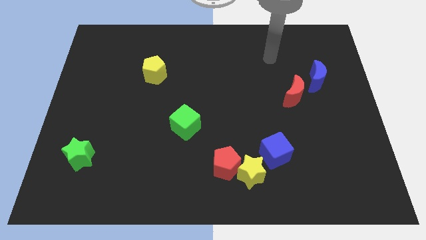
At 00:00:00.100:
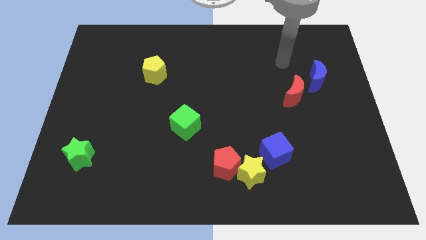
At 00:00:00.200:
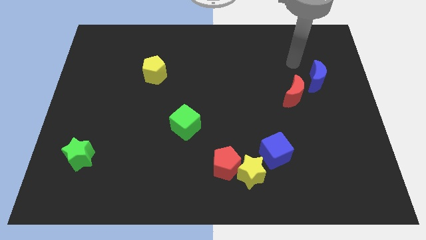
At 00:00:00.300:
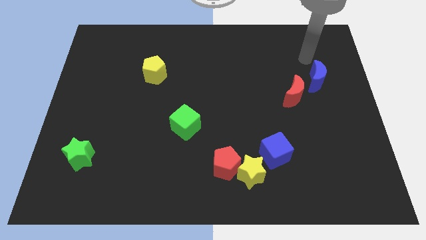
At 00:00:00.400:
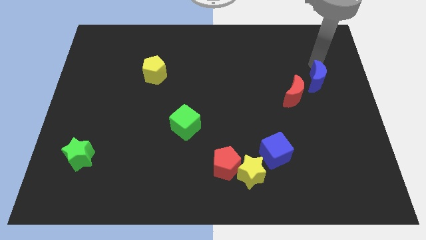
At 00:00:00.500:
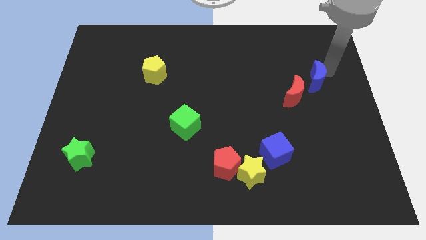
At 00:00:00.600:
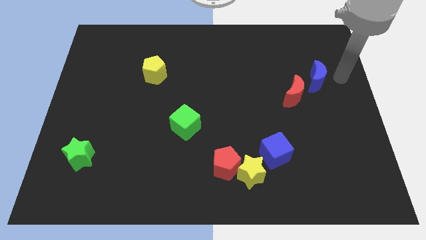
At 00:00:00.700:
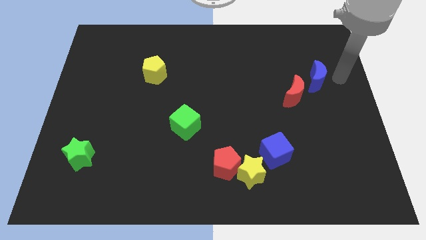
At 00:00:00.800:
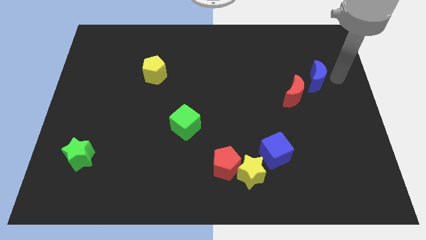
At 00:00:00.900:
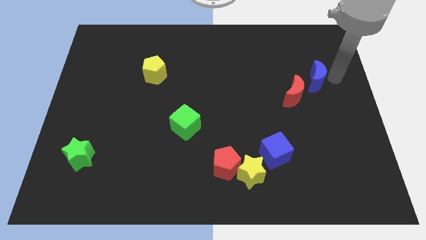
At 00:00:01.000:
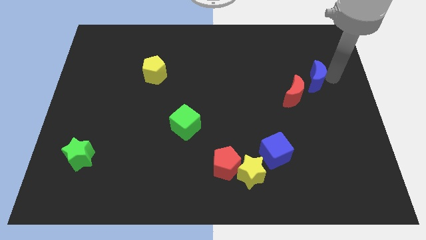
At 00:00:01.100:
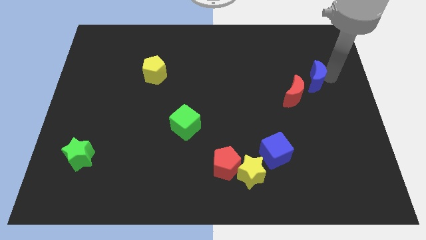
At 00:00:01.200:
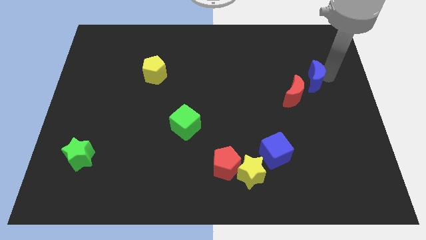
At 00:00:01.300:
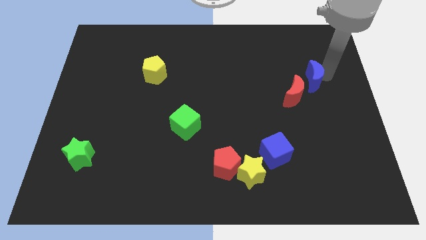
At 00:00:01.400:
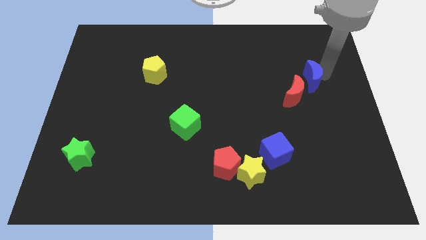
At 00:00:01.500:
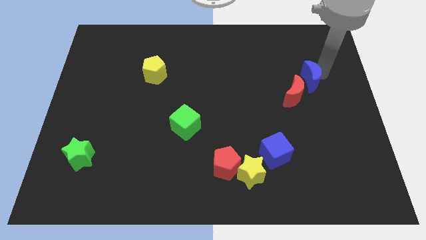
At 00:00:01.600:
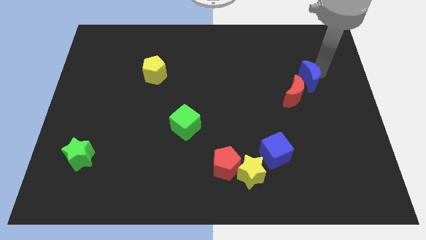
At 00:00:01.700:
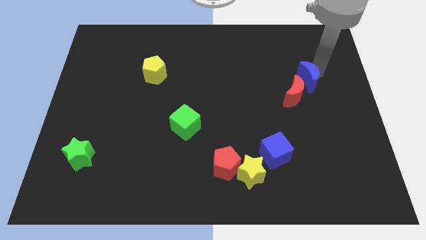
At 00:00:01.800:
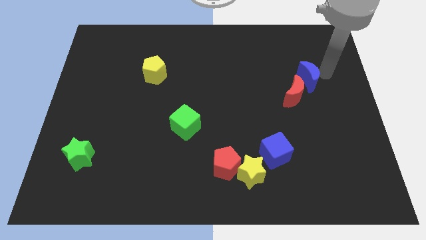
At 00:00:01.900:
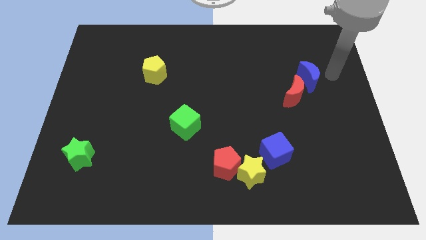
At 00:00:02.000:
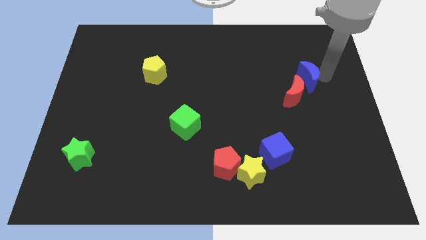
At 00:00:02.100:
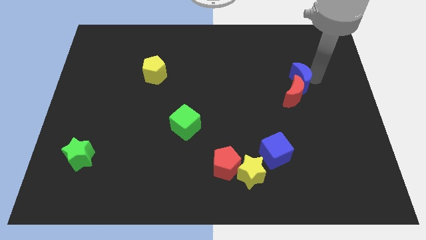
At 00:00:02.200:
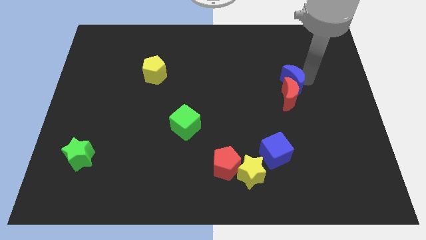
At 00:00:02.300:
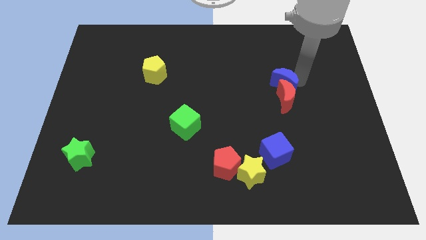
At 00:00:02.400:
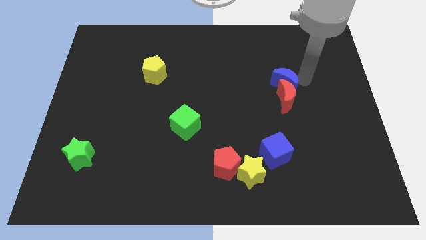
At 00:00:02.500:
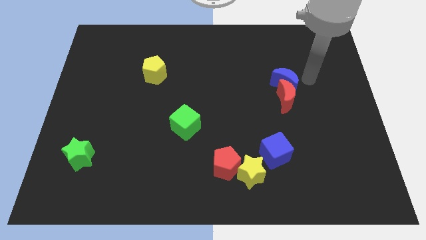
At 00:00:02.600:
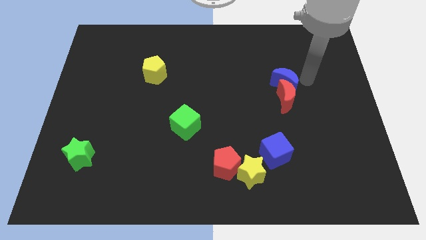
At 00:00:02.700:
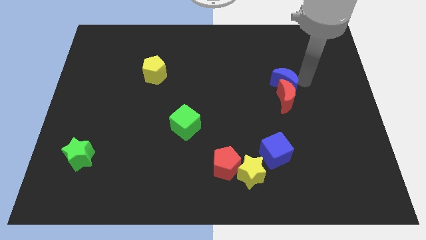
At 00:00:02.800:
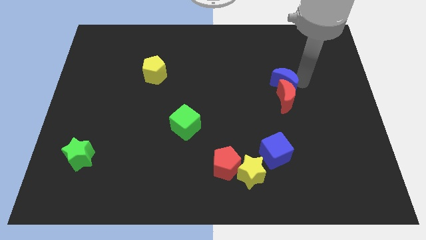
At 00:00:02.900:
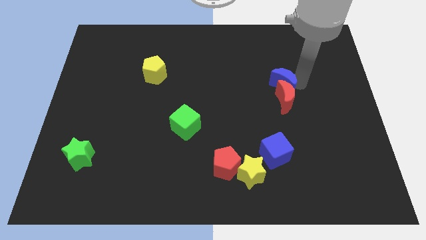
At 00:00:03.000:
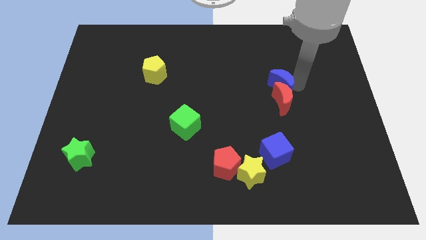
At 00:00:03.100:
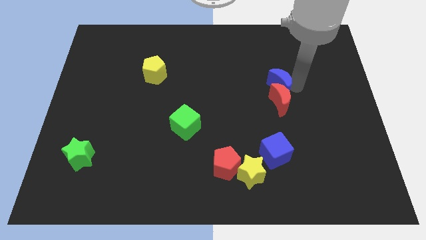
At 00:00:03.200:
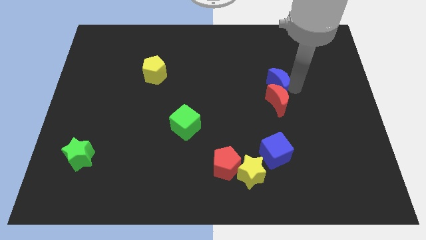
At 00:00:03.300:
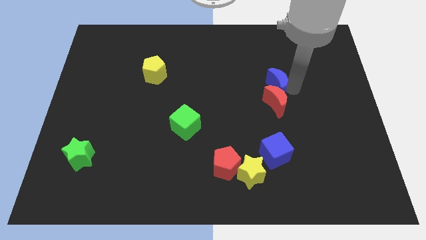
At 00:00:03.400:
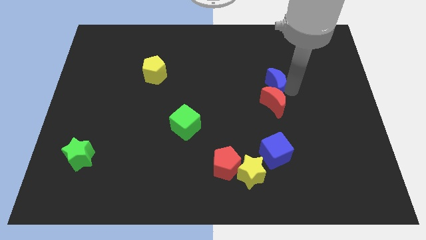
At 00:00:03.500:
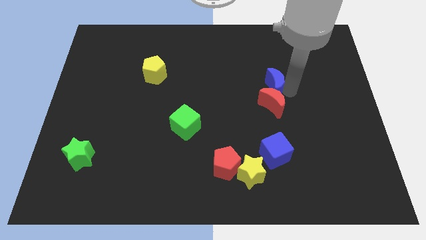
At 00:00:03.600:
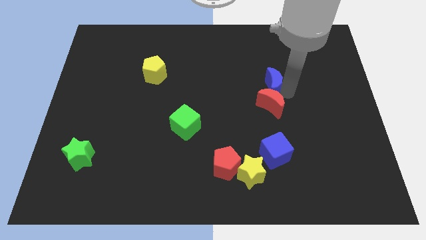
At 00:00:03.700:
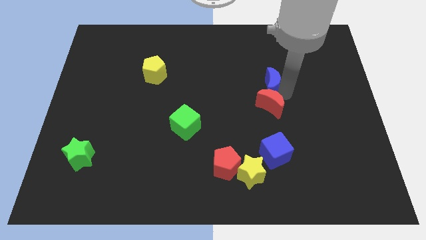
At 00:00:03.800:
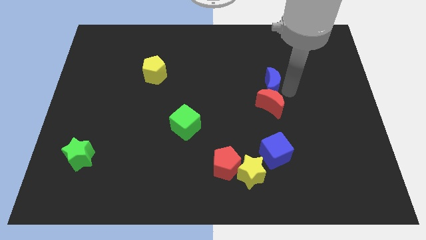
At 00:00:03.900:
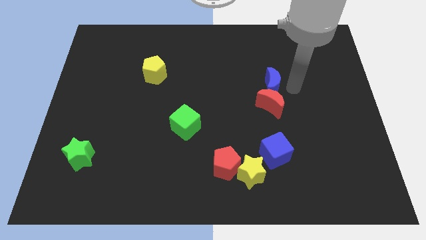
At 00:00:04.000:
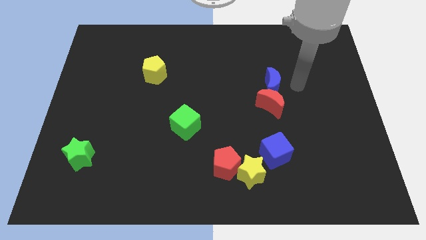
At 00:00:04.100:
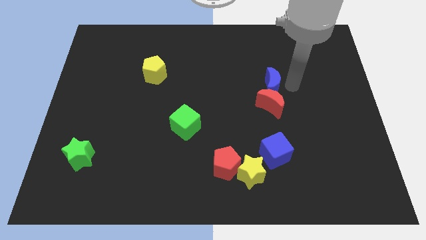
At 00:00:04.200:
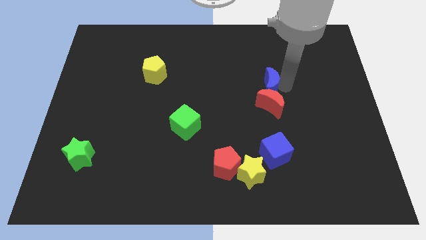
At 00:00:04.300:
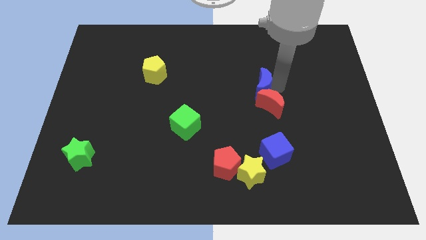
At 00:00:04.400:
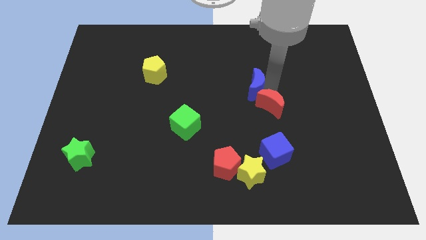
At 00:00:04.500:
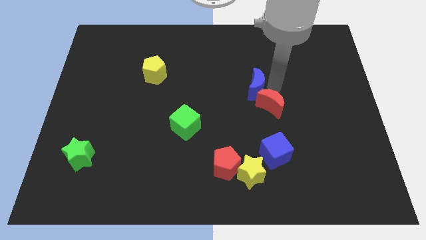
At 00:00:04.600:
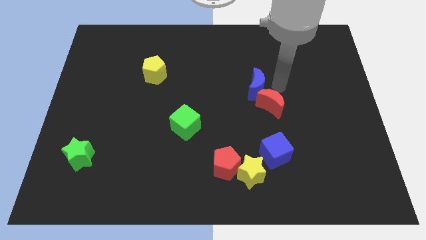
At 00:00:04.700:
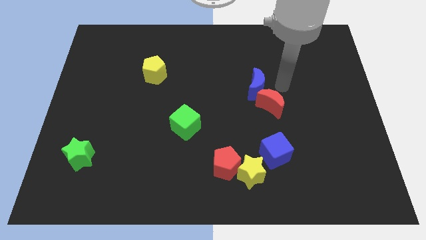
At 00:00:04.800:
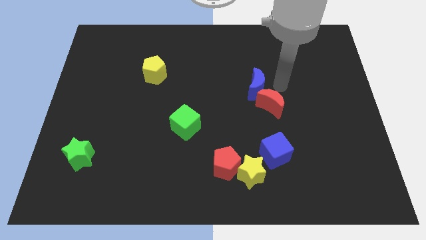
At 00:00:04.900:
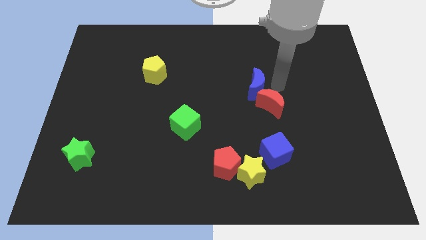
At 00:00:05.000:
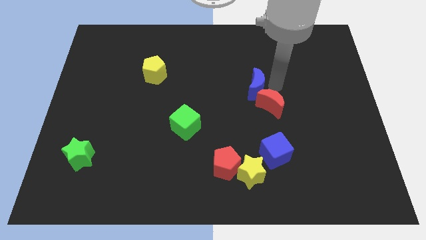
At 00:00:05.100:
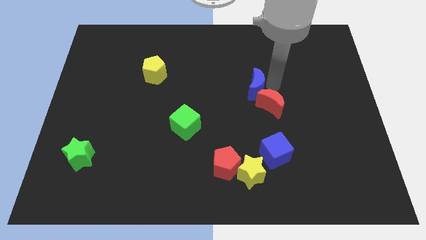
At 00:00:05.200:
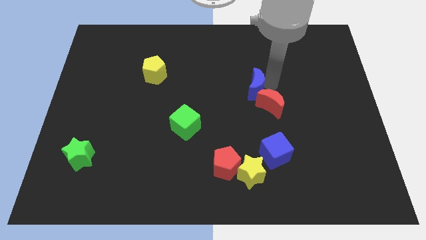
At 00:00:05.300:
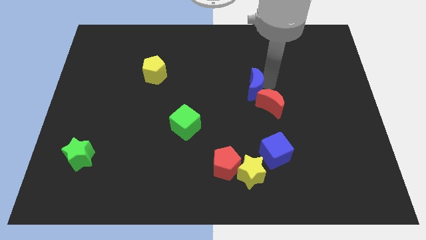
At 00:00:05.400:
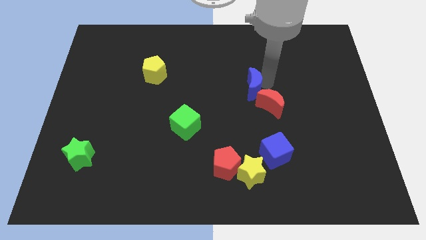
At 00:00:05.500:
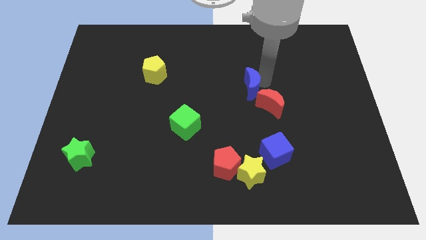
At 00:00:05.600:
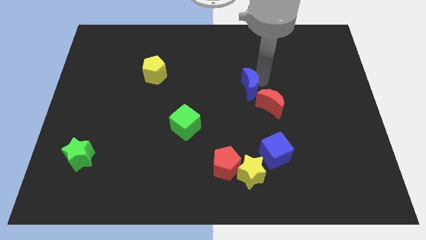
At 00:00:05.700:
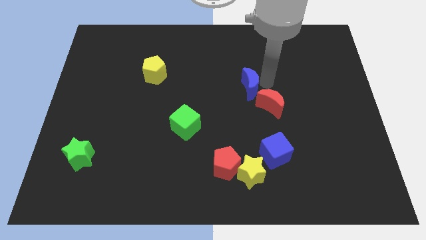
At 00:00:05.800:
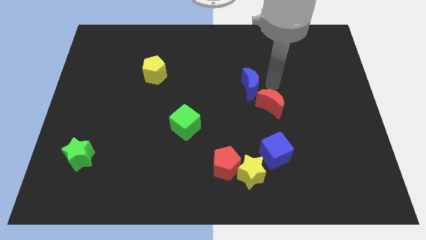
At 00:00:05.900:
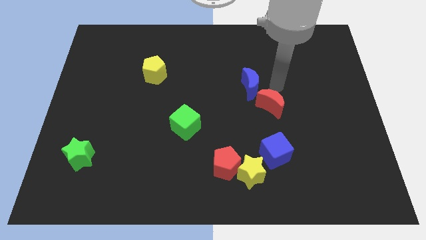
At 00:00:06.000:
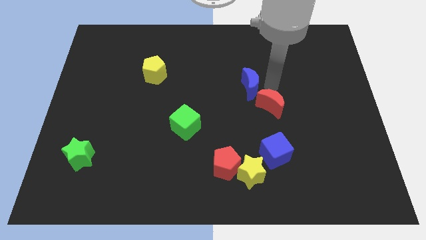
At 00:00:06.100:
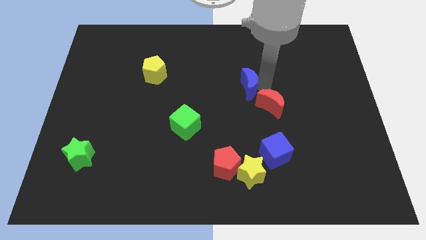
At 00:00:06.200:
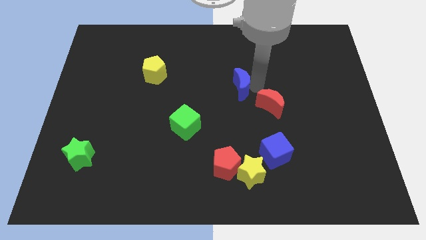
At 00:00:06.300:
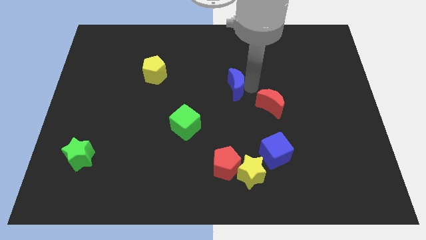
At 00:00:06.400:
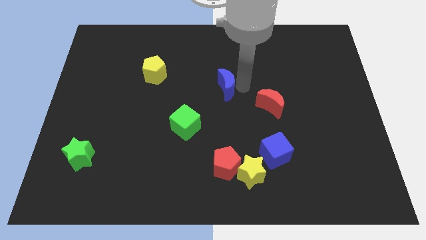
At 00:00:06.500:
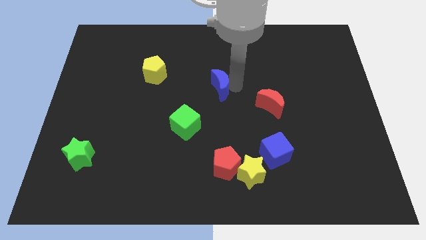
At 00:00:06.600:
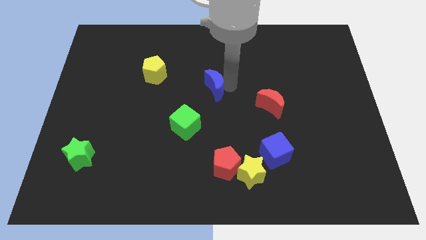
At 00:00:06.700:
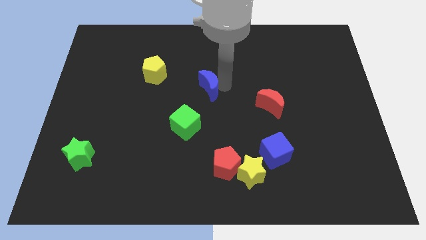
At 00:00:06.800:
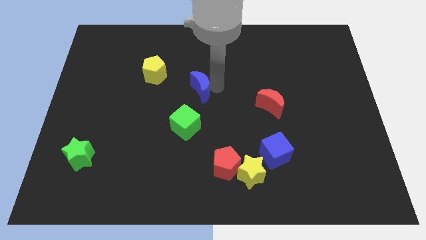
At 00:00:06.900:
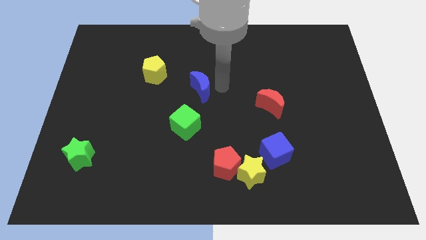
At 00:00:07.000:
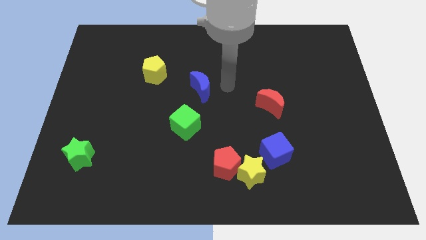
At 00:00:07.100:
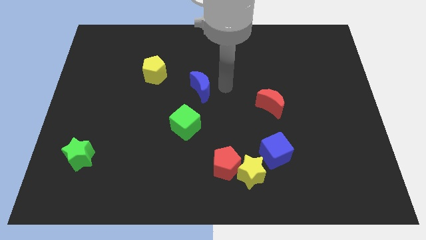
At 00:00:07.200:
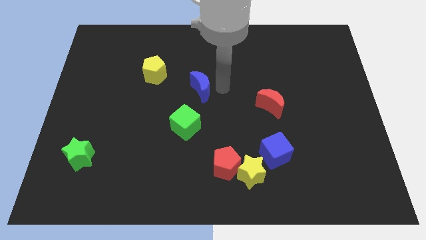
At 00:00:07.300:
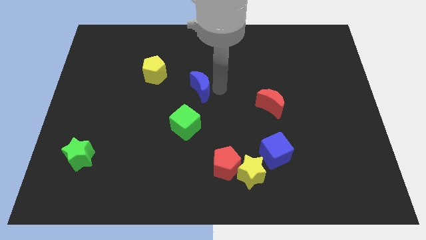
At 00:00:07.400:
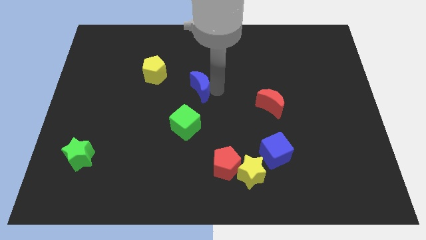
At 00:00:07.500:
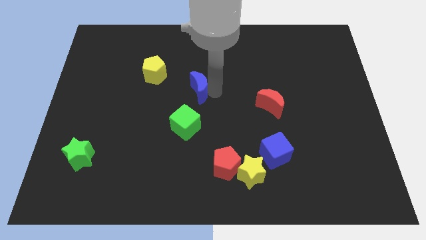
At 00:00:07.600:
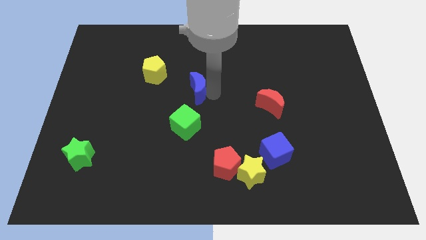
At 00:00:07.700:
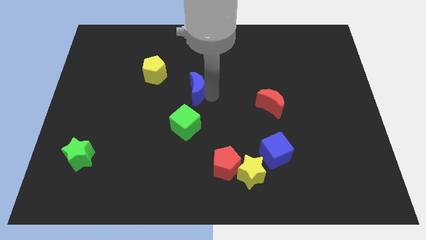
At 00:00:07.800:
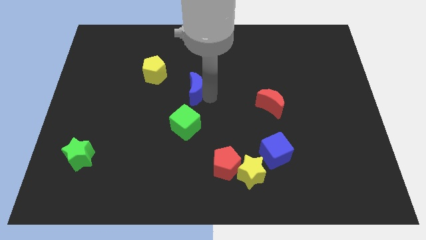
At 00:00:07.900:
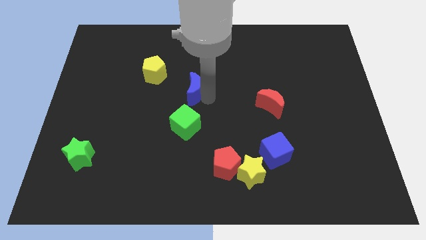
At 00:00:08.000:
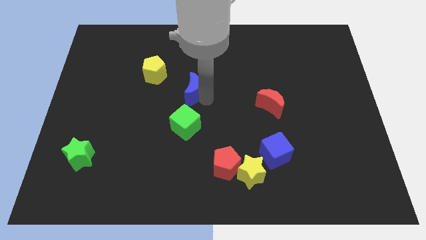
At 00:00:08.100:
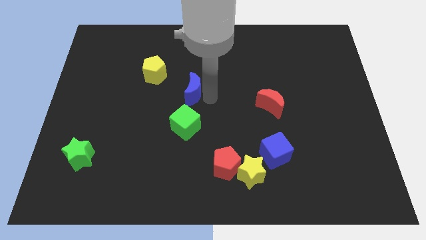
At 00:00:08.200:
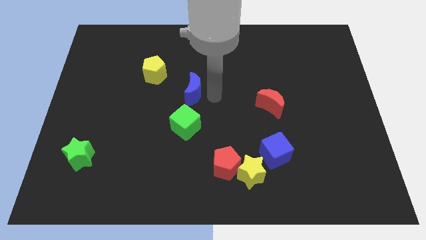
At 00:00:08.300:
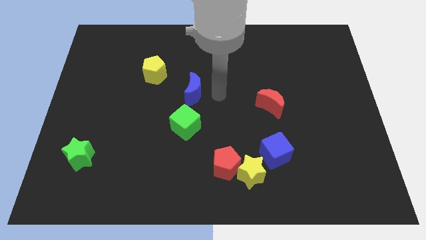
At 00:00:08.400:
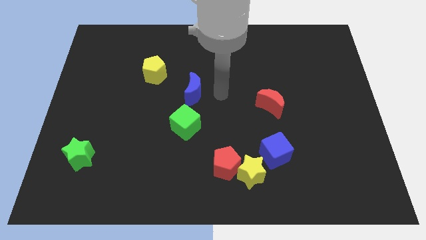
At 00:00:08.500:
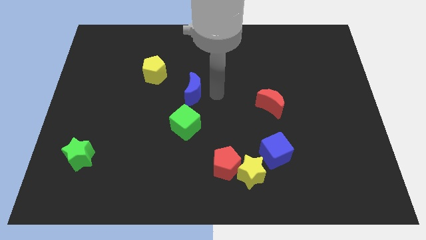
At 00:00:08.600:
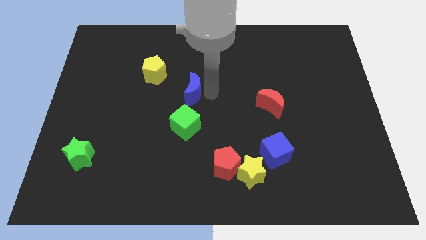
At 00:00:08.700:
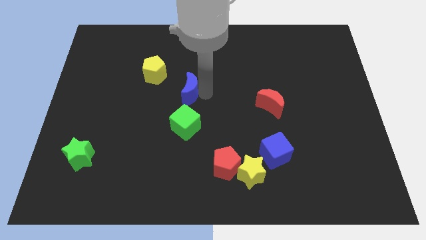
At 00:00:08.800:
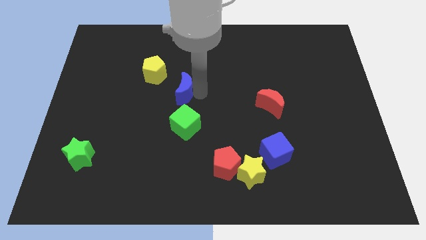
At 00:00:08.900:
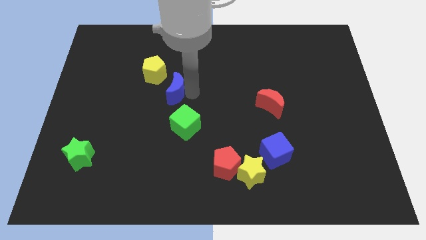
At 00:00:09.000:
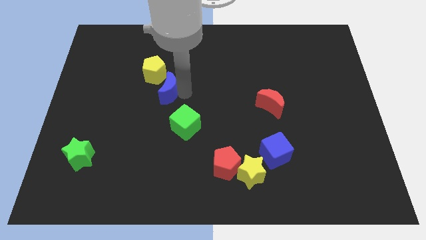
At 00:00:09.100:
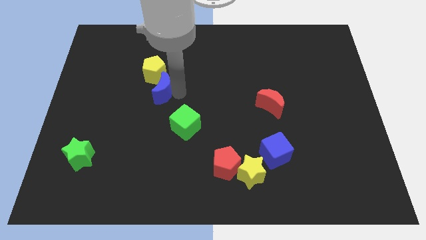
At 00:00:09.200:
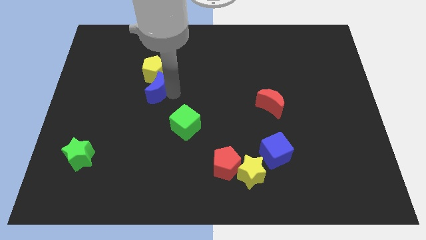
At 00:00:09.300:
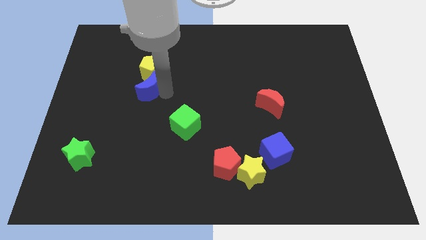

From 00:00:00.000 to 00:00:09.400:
put the blue moon to the bottom left side of the yellow pentagon
